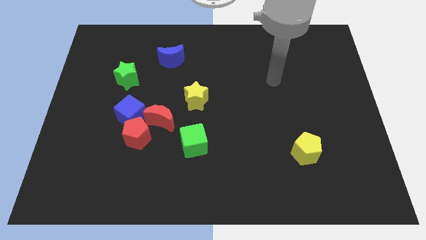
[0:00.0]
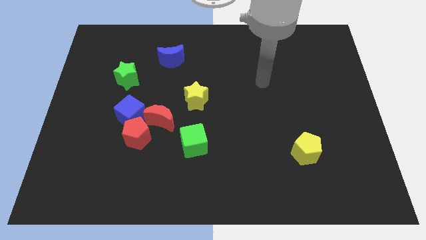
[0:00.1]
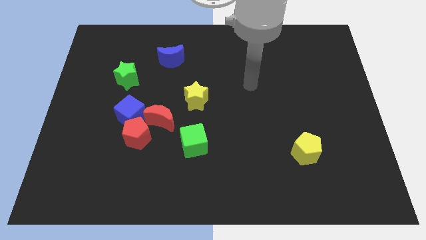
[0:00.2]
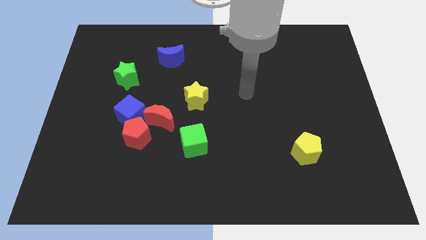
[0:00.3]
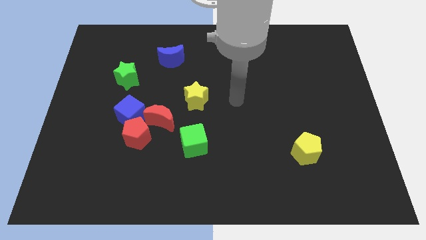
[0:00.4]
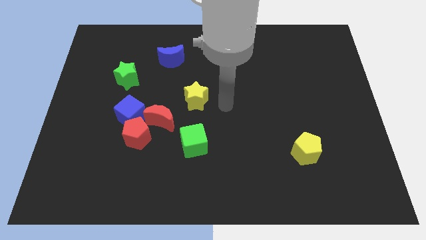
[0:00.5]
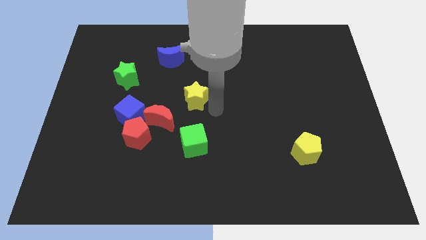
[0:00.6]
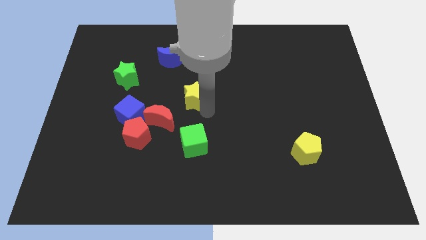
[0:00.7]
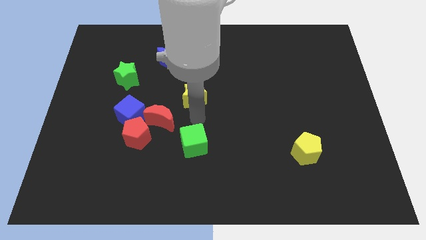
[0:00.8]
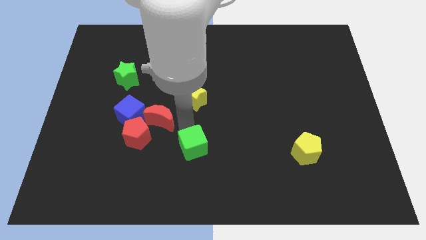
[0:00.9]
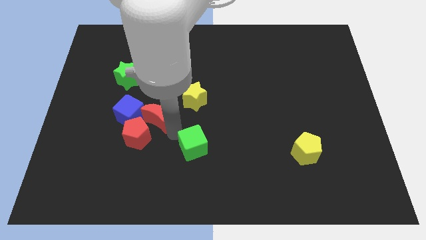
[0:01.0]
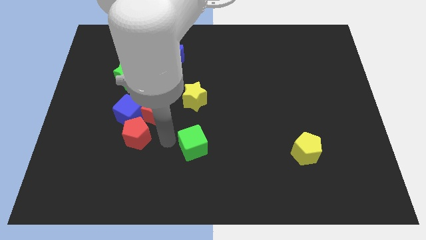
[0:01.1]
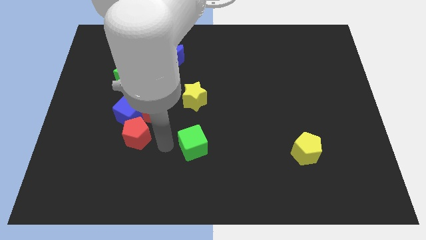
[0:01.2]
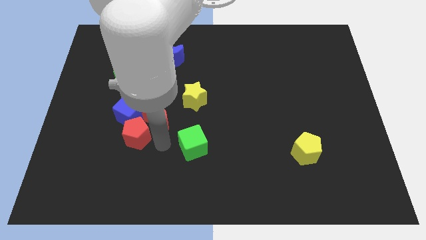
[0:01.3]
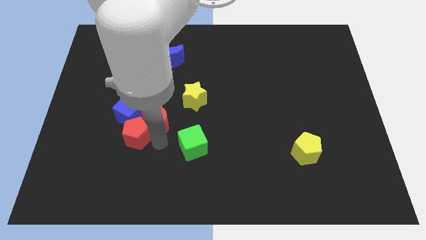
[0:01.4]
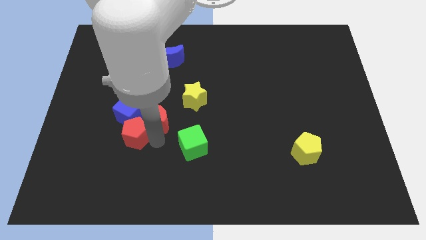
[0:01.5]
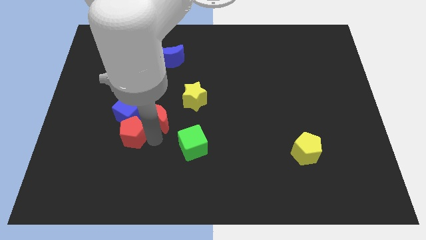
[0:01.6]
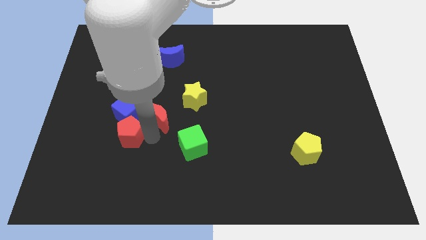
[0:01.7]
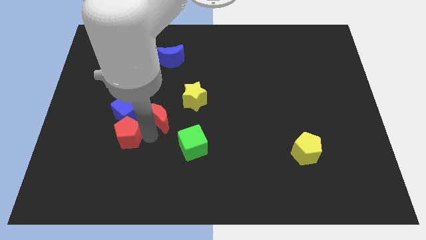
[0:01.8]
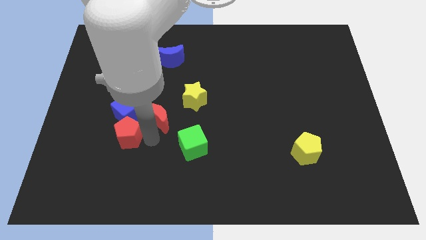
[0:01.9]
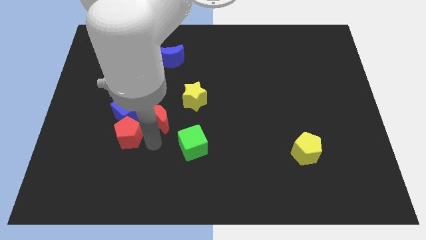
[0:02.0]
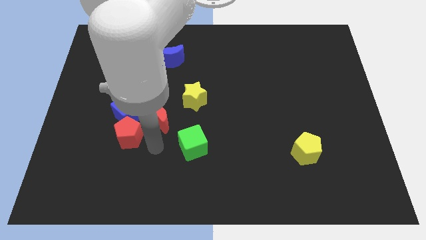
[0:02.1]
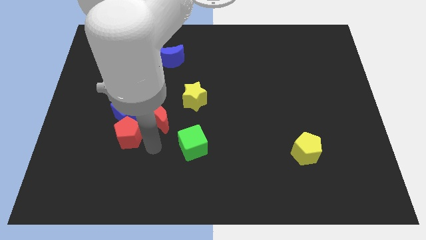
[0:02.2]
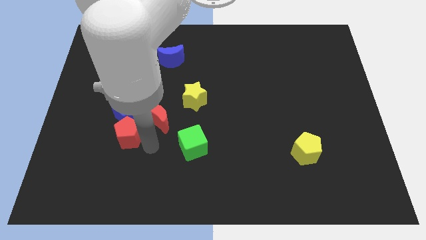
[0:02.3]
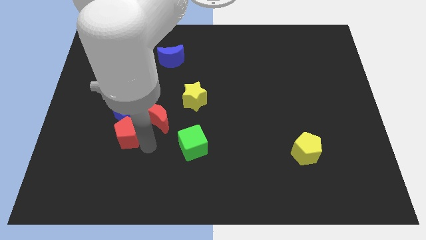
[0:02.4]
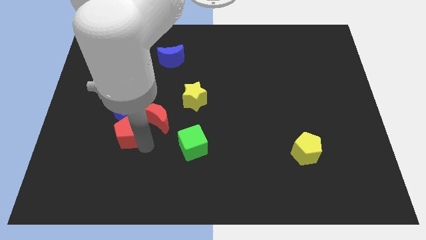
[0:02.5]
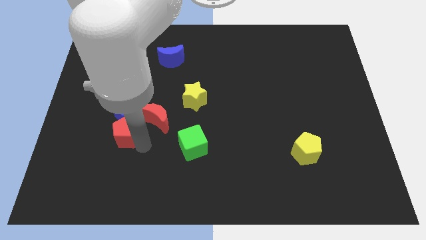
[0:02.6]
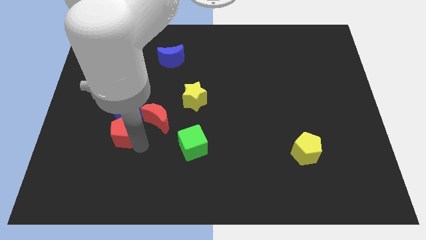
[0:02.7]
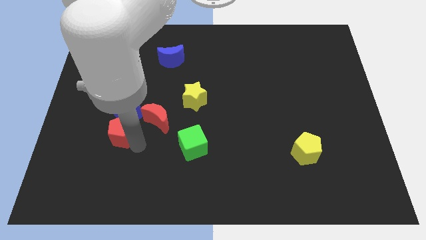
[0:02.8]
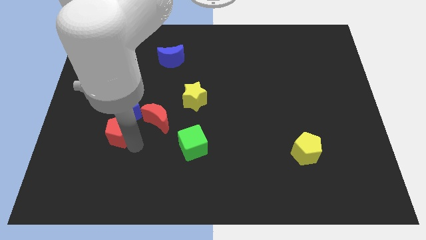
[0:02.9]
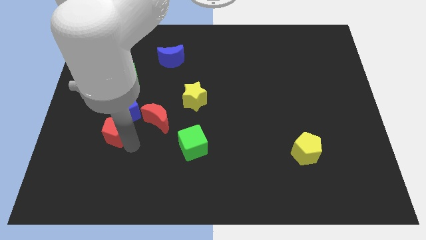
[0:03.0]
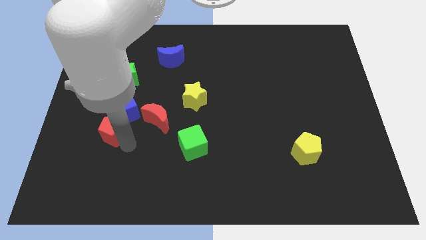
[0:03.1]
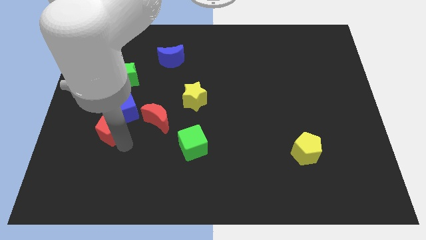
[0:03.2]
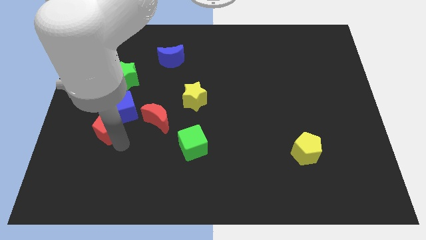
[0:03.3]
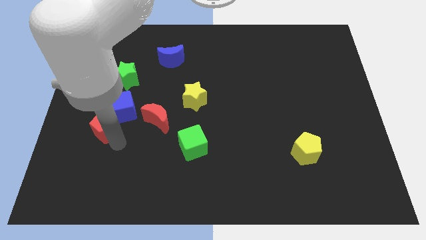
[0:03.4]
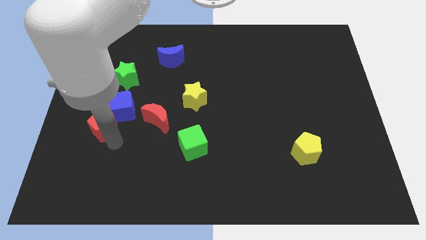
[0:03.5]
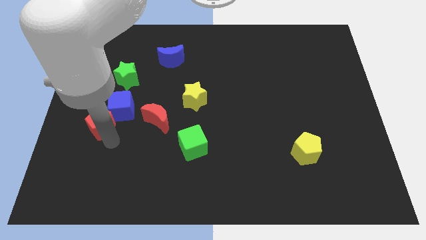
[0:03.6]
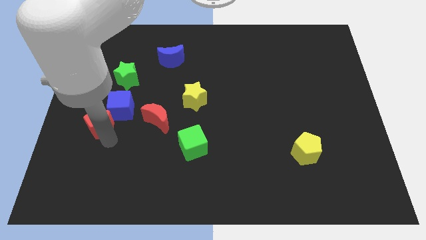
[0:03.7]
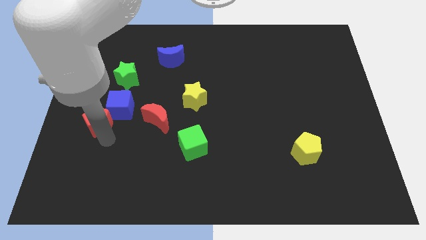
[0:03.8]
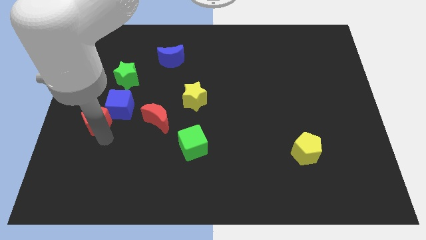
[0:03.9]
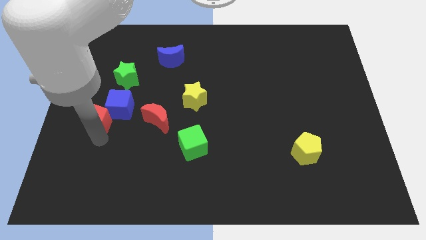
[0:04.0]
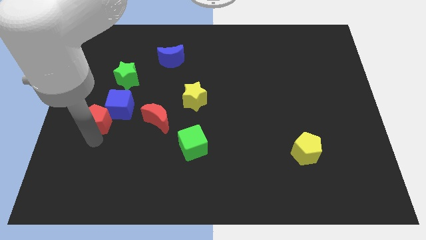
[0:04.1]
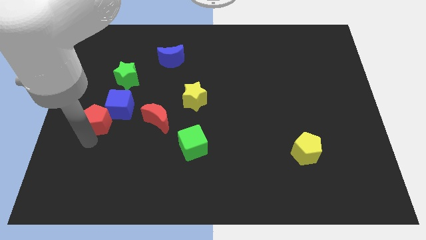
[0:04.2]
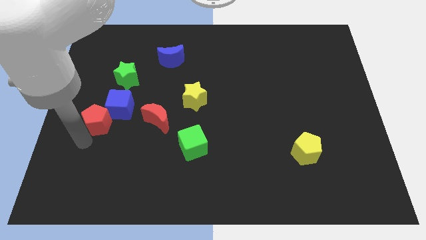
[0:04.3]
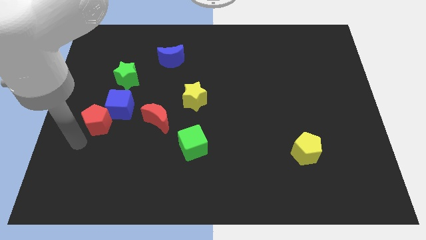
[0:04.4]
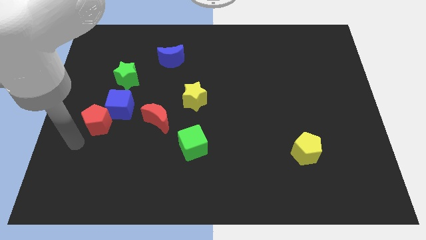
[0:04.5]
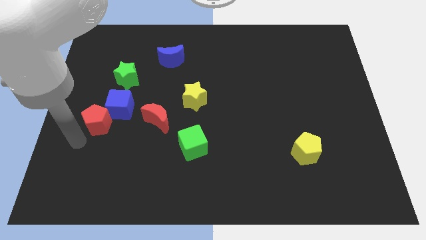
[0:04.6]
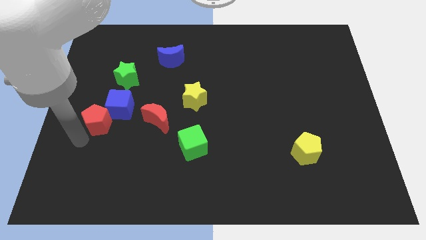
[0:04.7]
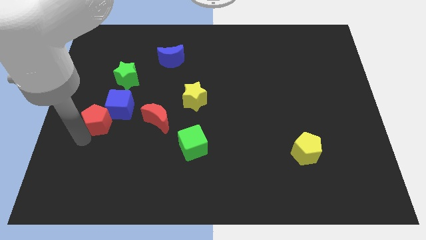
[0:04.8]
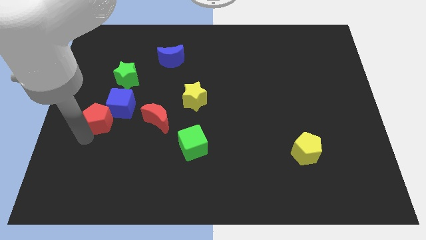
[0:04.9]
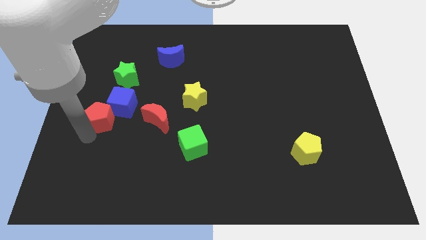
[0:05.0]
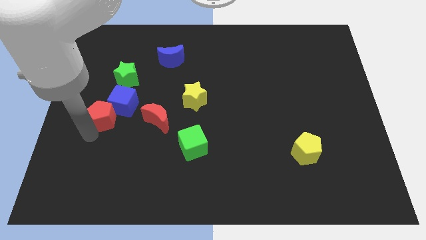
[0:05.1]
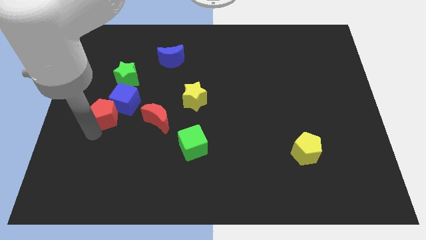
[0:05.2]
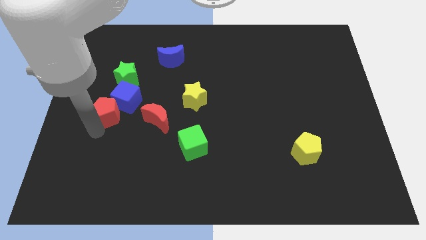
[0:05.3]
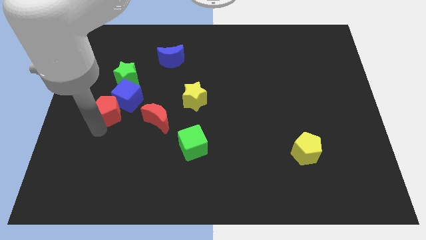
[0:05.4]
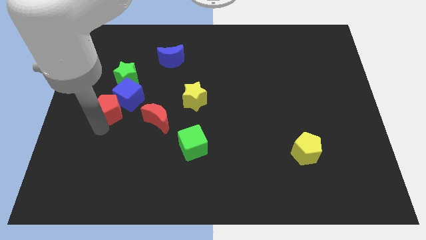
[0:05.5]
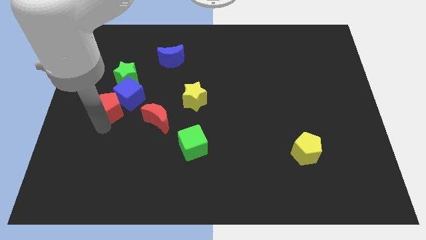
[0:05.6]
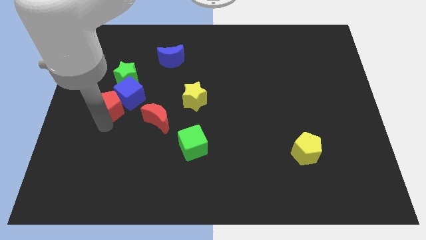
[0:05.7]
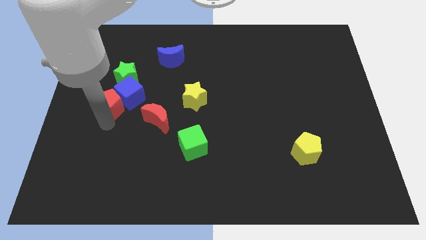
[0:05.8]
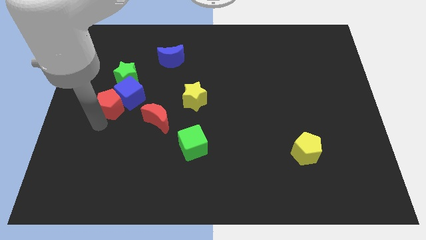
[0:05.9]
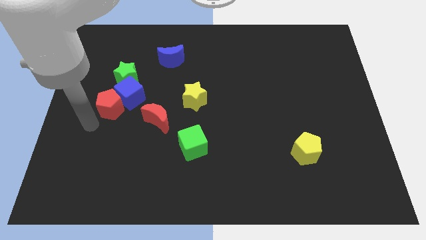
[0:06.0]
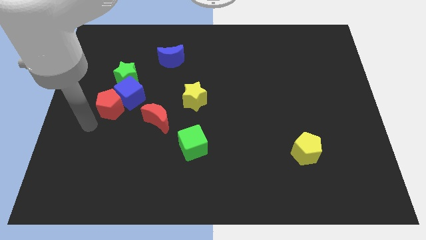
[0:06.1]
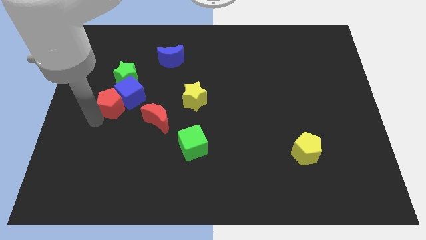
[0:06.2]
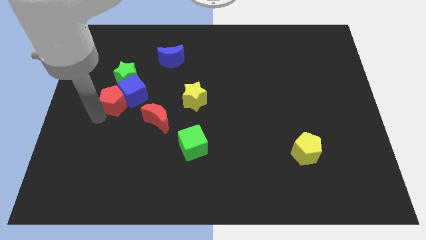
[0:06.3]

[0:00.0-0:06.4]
slide the red pentagon a bit upwards

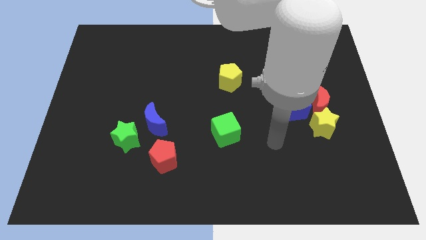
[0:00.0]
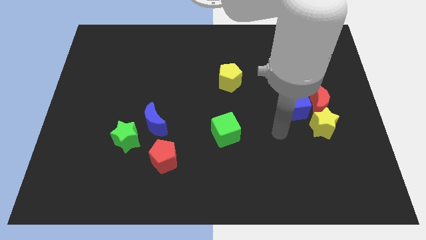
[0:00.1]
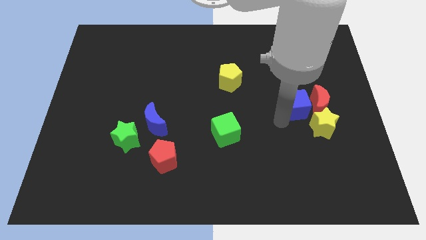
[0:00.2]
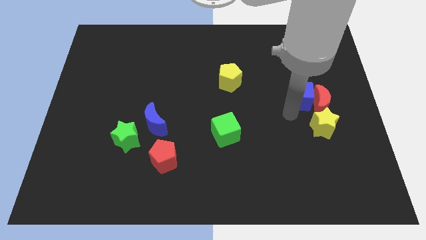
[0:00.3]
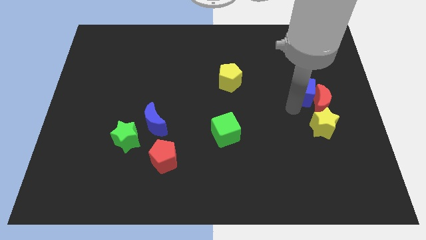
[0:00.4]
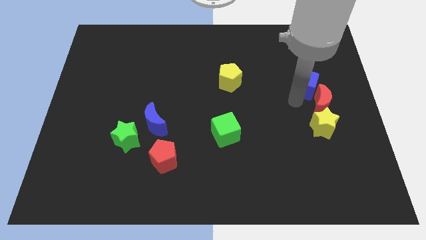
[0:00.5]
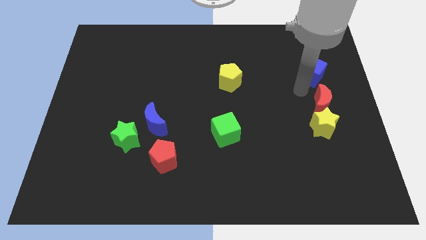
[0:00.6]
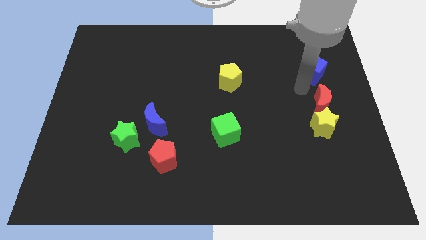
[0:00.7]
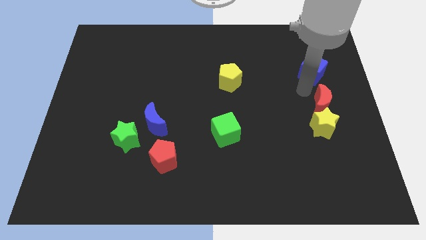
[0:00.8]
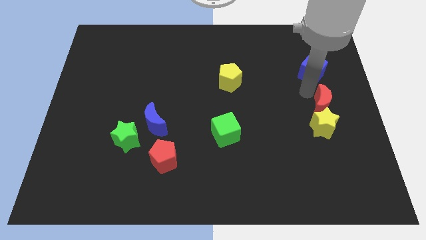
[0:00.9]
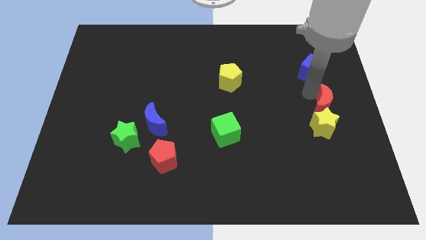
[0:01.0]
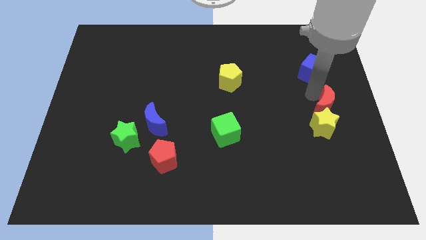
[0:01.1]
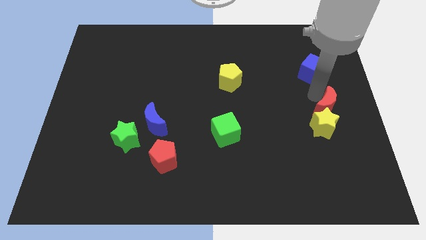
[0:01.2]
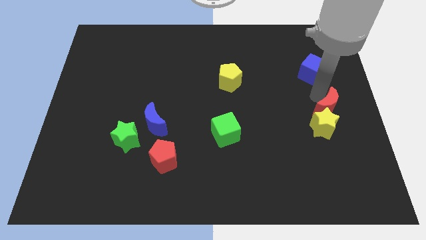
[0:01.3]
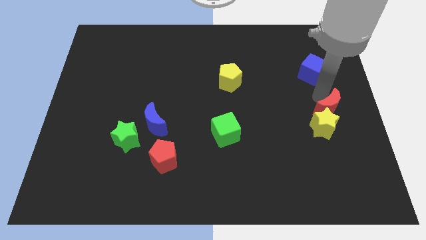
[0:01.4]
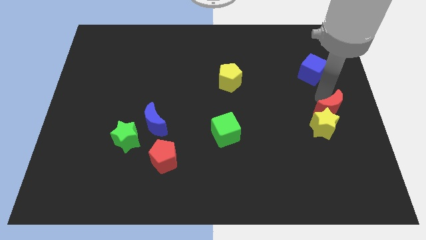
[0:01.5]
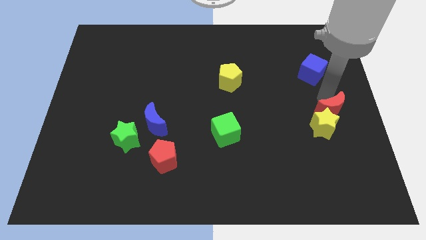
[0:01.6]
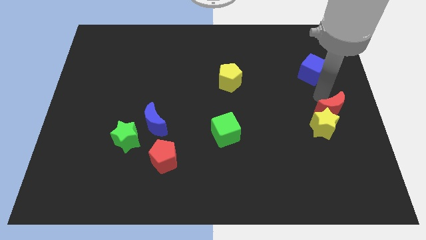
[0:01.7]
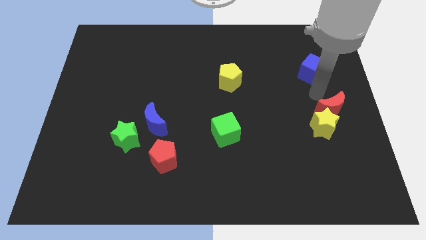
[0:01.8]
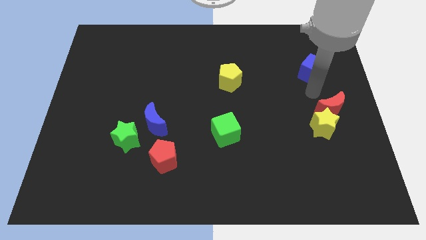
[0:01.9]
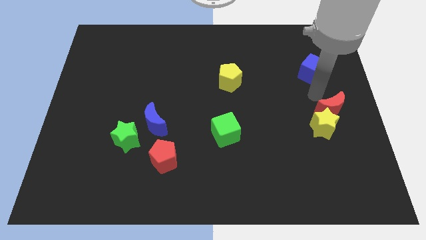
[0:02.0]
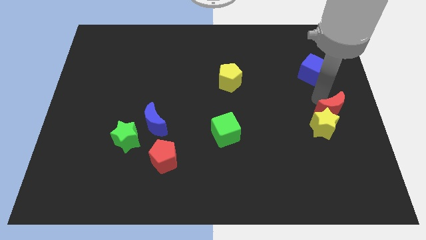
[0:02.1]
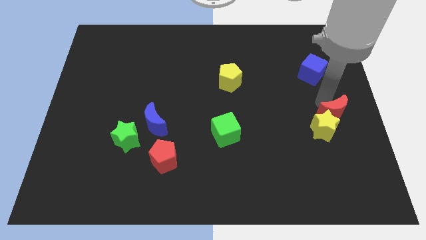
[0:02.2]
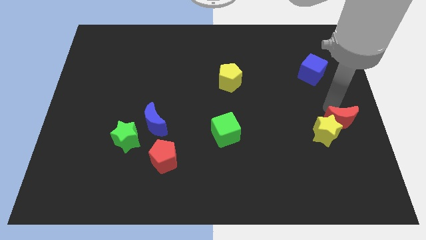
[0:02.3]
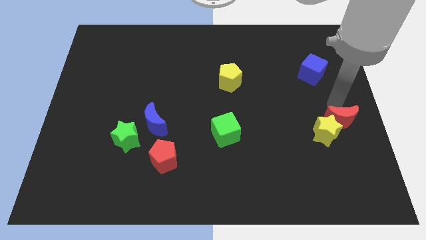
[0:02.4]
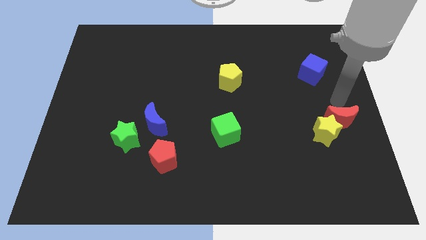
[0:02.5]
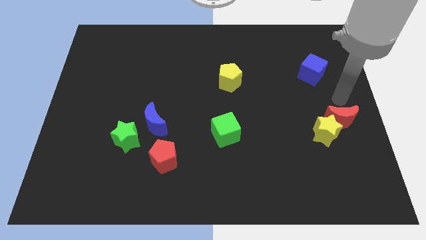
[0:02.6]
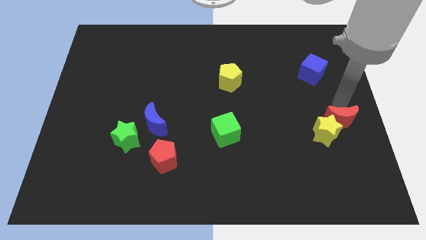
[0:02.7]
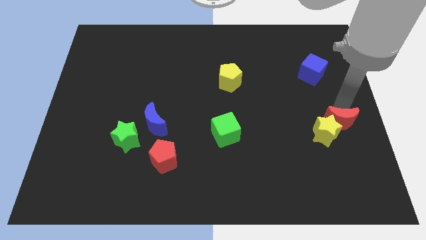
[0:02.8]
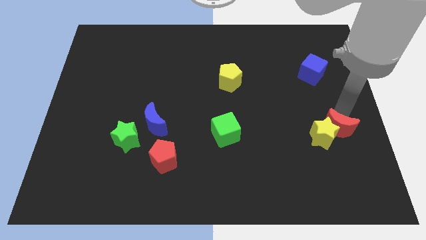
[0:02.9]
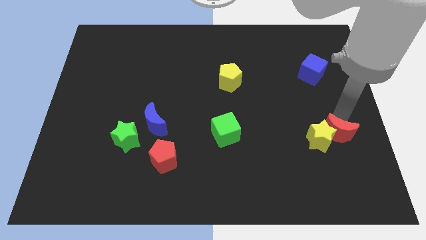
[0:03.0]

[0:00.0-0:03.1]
slightly move the red moon downwards
